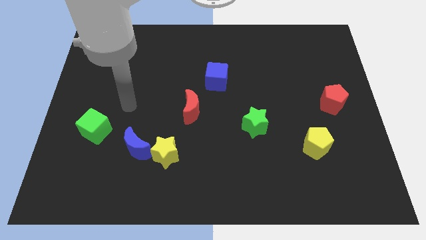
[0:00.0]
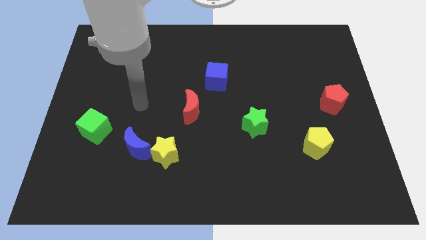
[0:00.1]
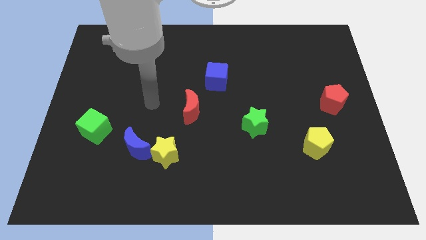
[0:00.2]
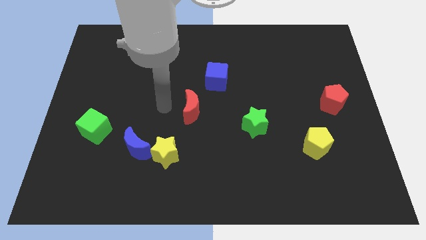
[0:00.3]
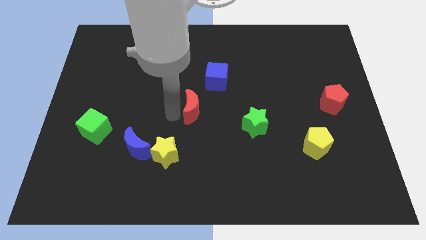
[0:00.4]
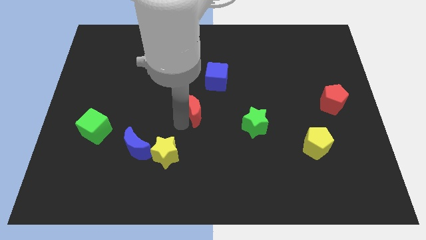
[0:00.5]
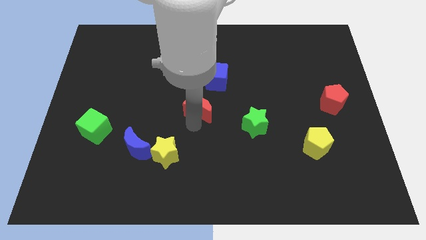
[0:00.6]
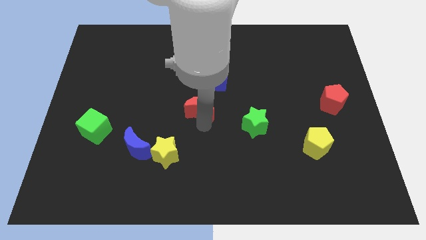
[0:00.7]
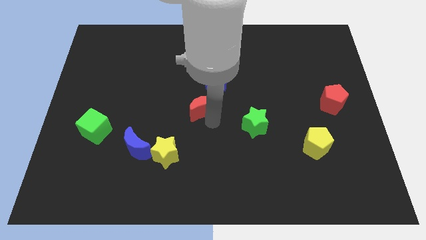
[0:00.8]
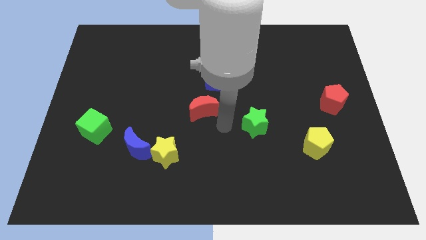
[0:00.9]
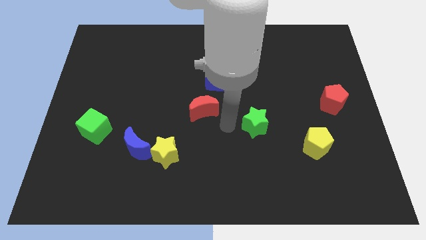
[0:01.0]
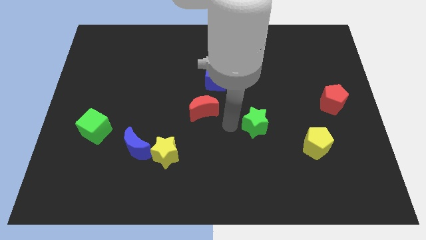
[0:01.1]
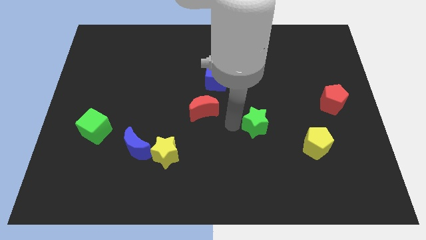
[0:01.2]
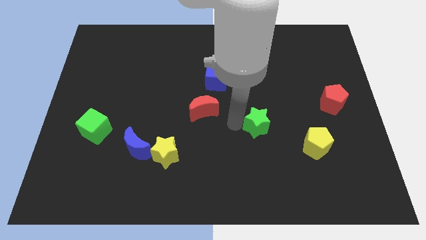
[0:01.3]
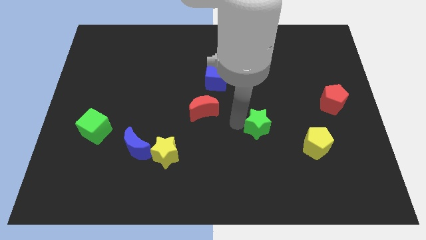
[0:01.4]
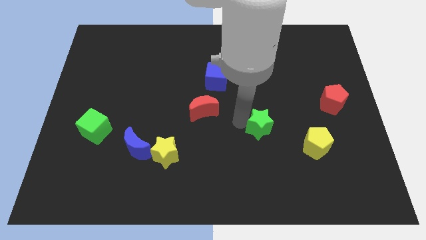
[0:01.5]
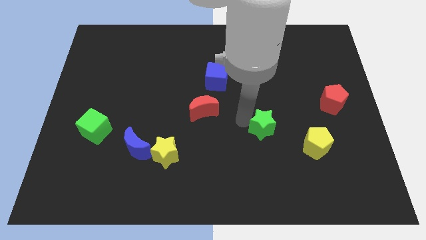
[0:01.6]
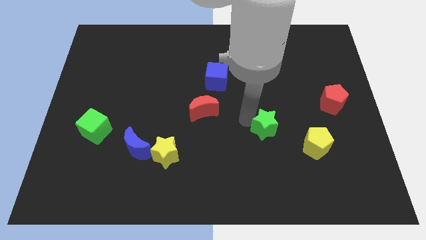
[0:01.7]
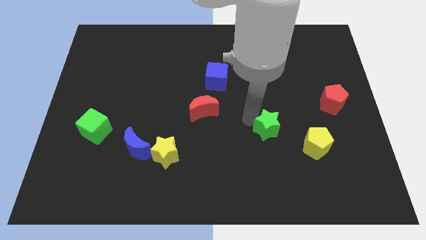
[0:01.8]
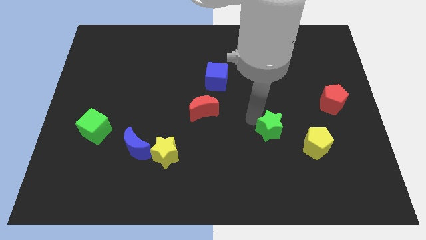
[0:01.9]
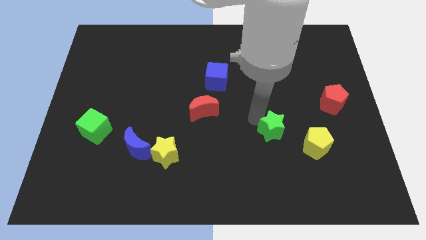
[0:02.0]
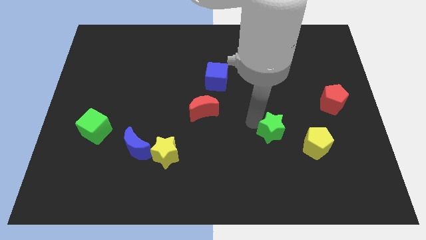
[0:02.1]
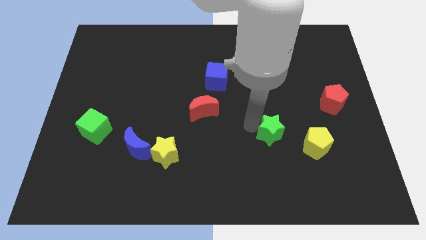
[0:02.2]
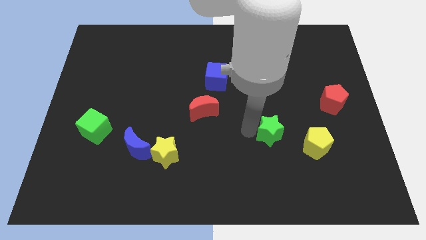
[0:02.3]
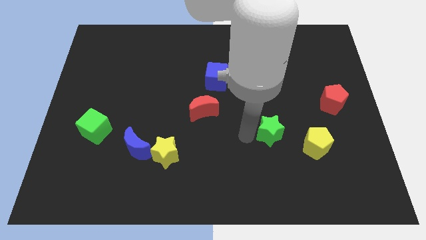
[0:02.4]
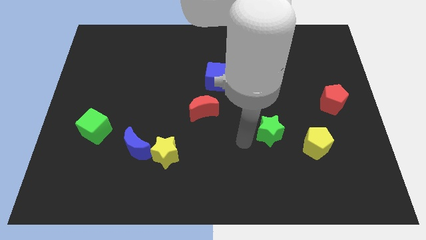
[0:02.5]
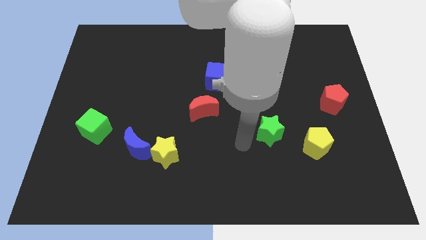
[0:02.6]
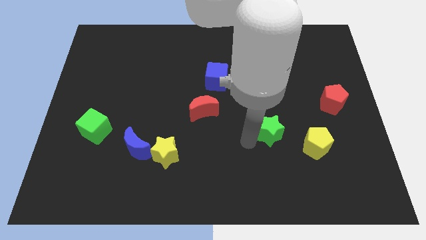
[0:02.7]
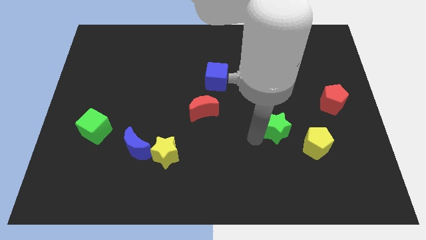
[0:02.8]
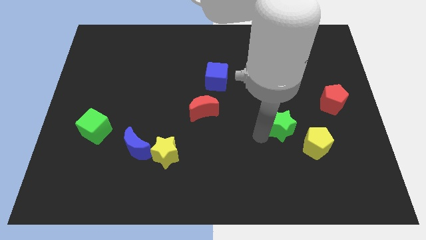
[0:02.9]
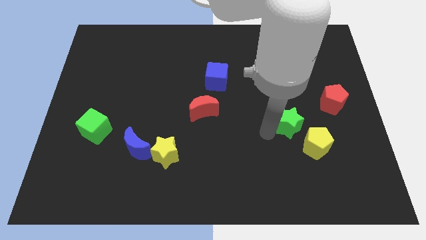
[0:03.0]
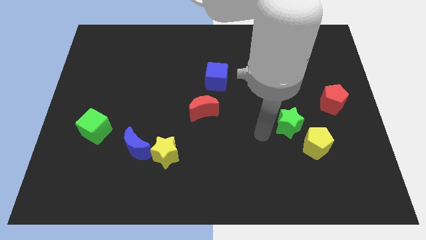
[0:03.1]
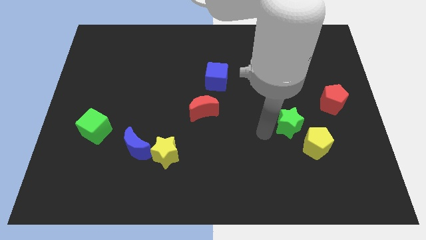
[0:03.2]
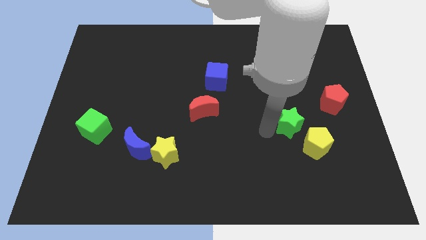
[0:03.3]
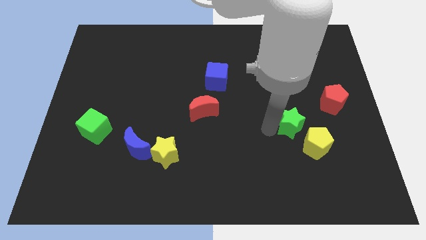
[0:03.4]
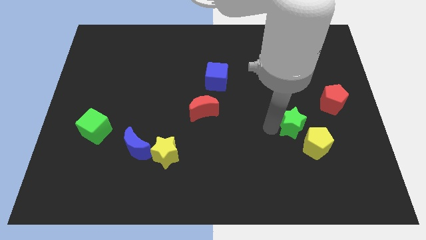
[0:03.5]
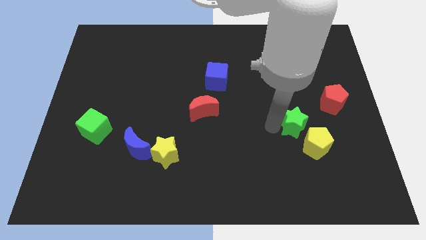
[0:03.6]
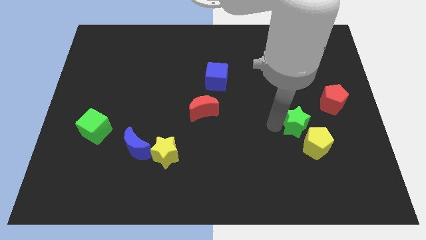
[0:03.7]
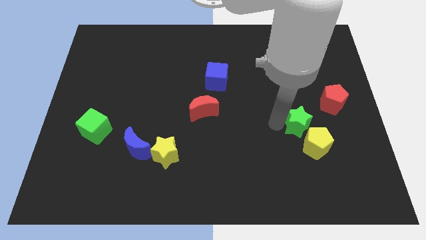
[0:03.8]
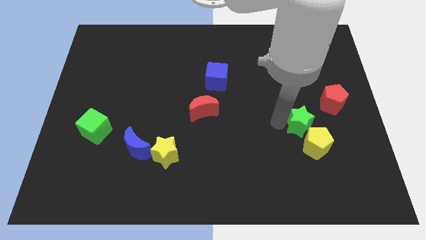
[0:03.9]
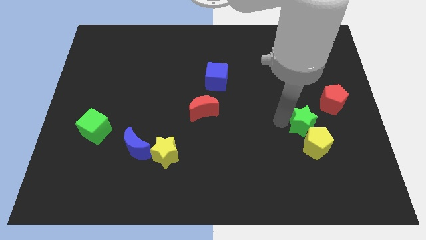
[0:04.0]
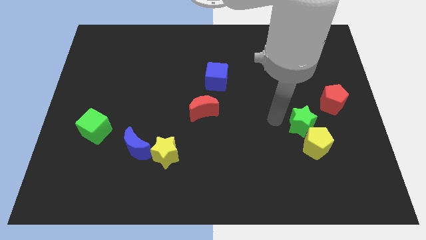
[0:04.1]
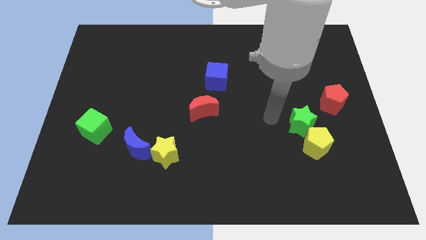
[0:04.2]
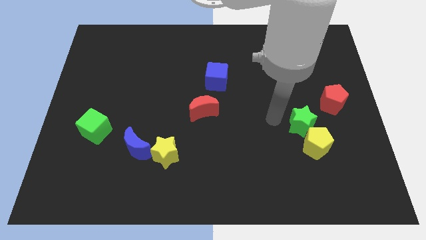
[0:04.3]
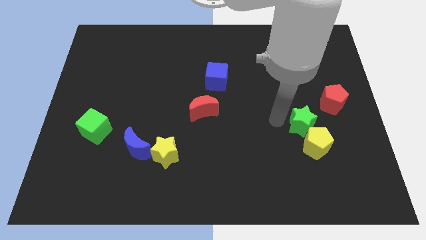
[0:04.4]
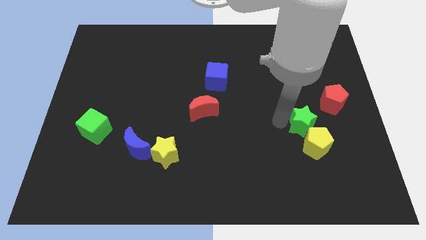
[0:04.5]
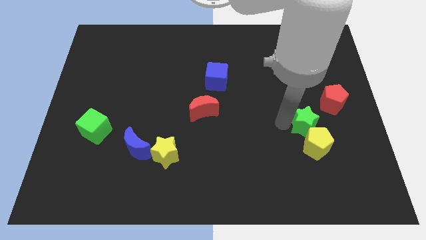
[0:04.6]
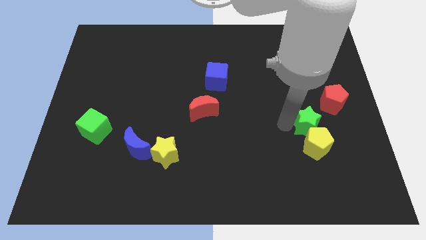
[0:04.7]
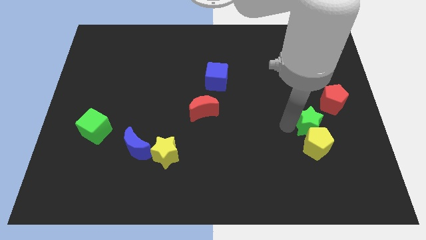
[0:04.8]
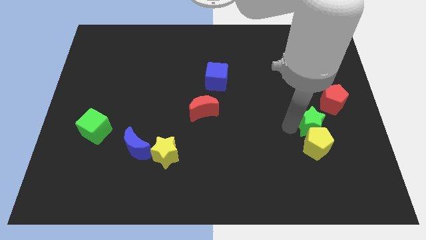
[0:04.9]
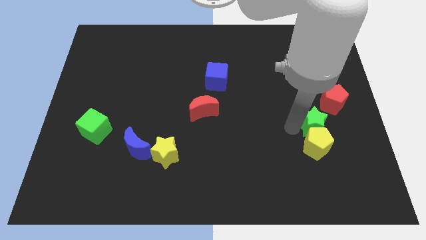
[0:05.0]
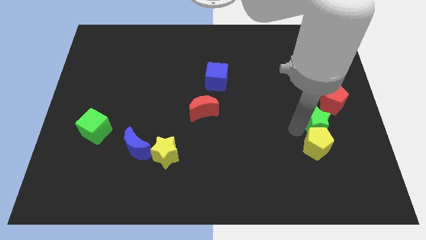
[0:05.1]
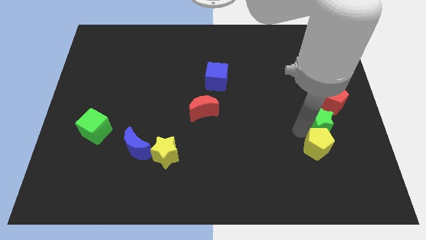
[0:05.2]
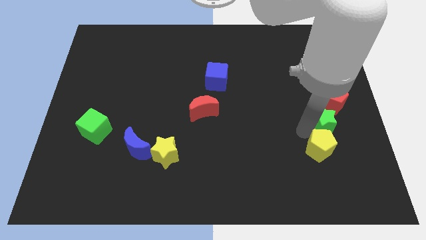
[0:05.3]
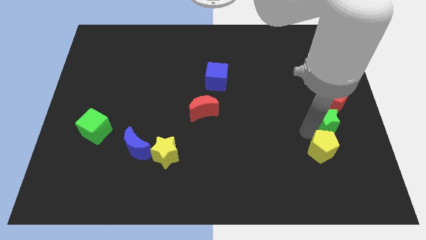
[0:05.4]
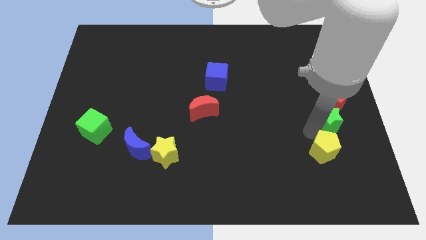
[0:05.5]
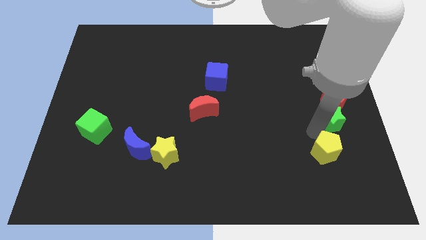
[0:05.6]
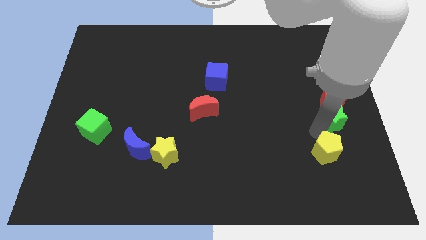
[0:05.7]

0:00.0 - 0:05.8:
slide the green star to the center right
